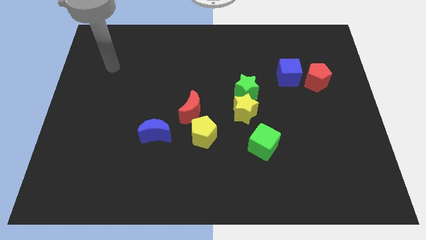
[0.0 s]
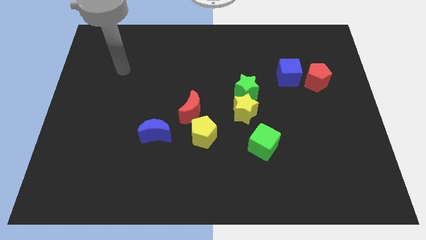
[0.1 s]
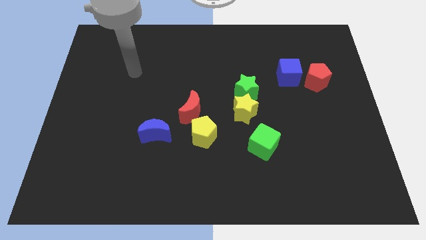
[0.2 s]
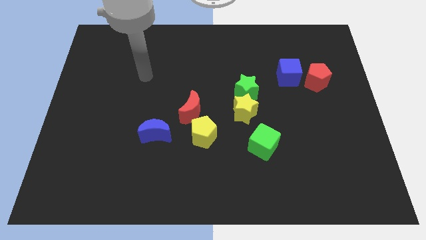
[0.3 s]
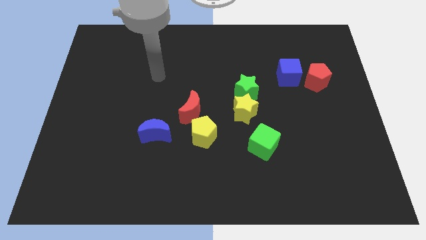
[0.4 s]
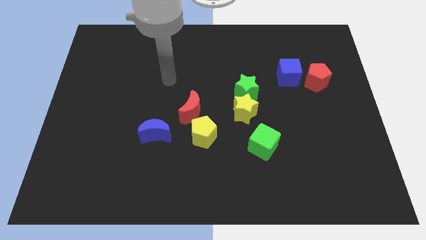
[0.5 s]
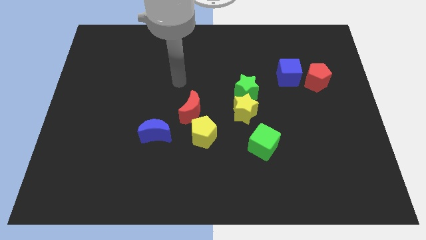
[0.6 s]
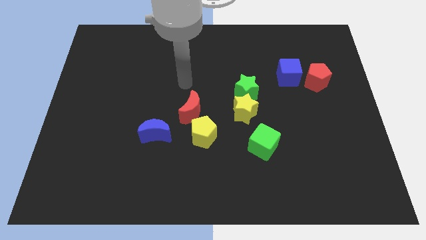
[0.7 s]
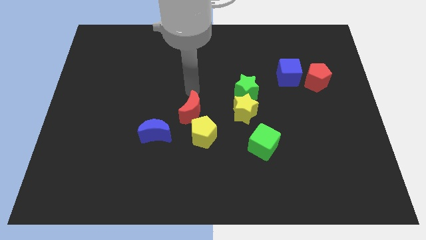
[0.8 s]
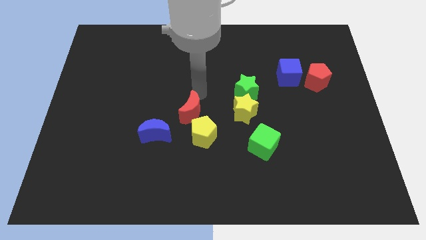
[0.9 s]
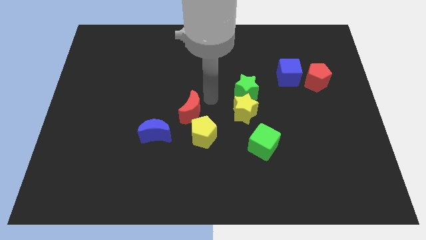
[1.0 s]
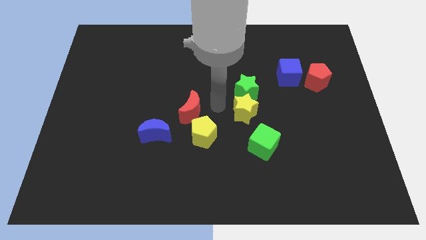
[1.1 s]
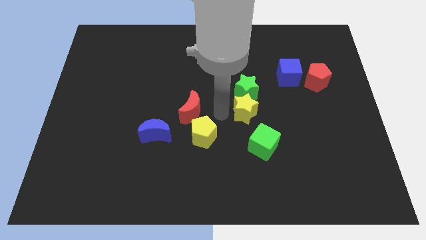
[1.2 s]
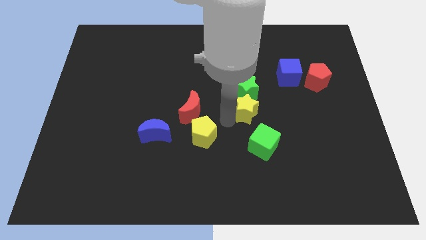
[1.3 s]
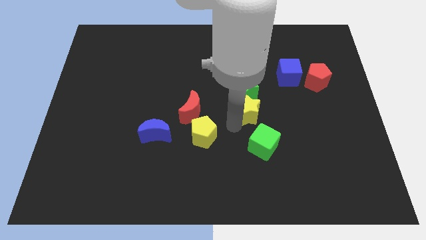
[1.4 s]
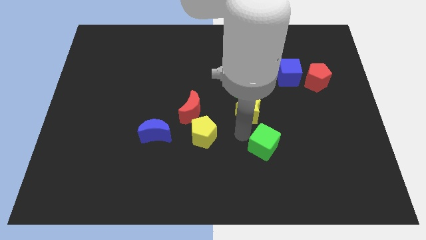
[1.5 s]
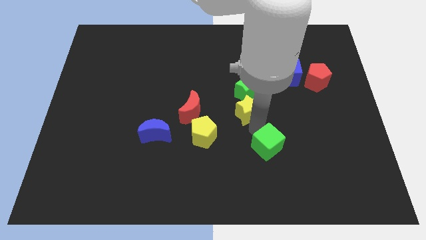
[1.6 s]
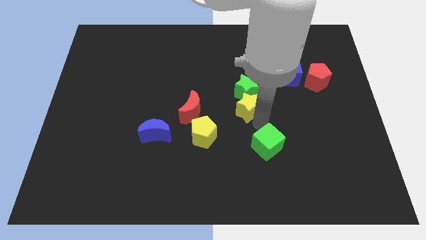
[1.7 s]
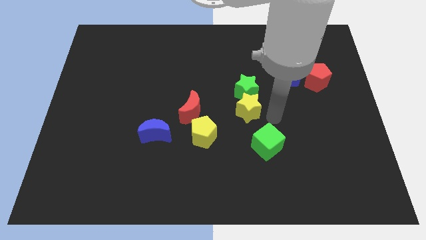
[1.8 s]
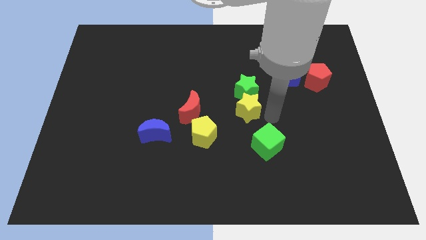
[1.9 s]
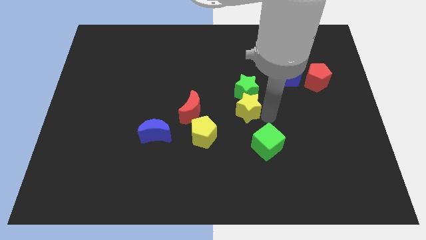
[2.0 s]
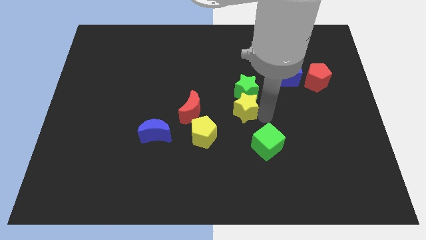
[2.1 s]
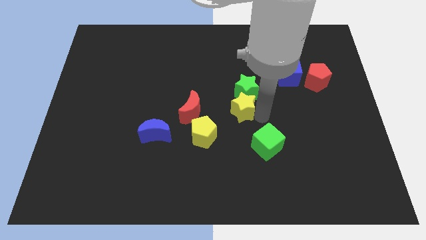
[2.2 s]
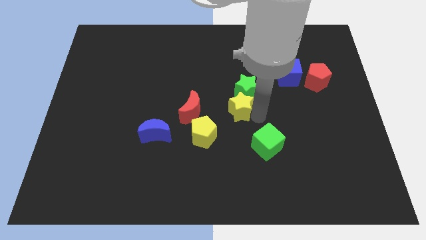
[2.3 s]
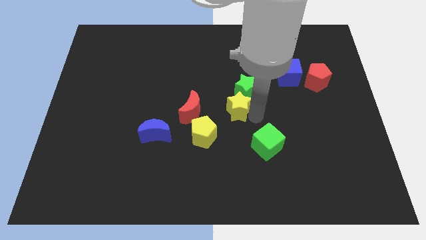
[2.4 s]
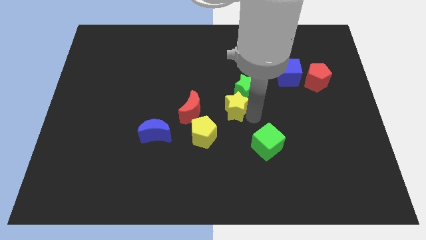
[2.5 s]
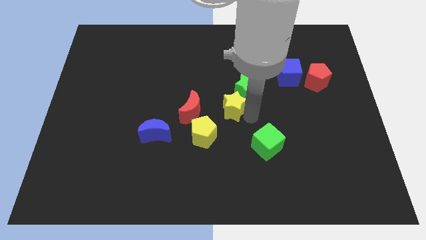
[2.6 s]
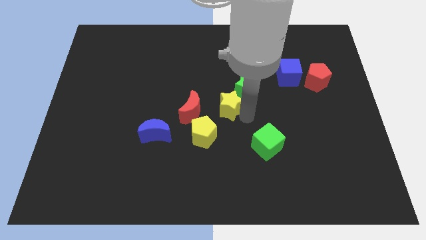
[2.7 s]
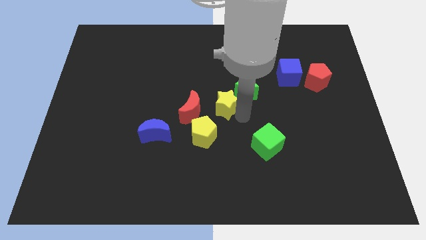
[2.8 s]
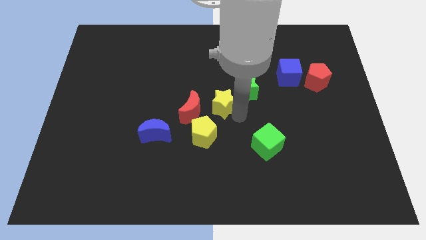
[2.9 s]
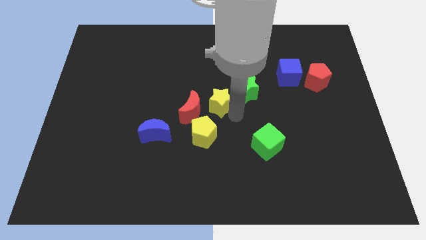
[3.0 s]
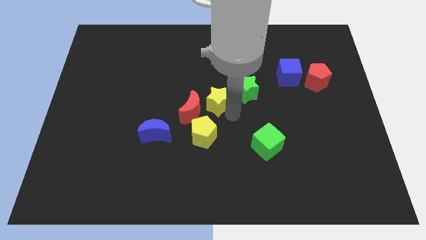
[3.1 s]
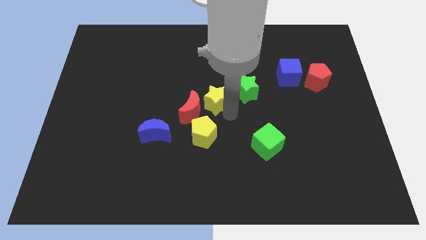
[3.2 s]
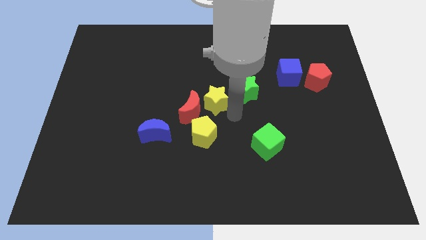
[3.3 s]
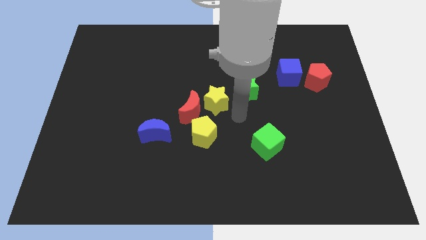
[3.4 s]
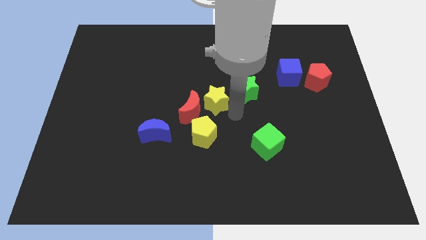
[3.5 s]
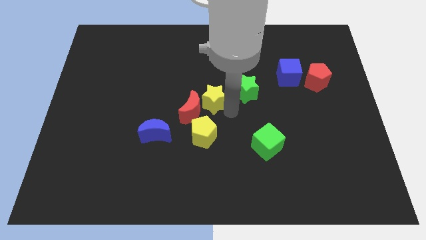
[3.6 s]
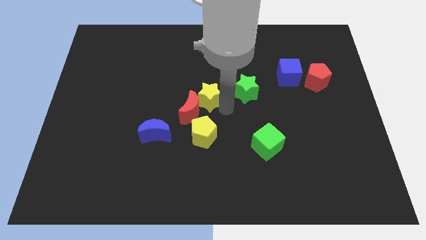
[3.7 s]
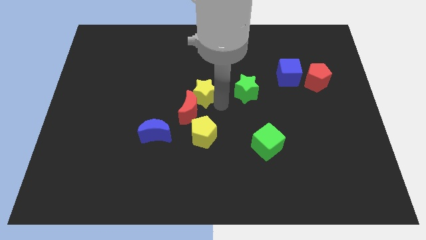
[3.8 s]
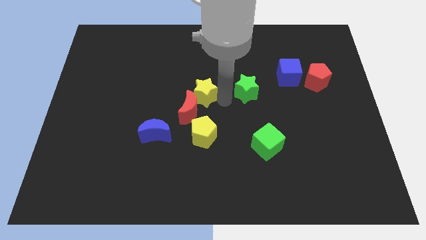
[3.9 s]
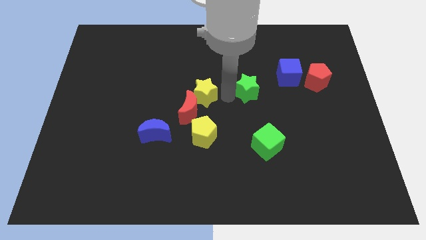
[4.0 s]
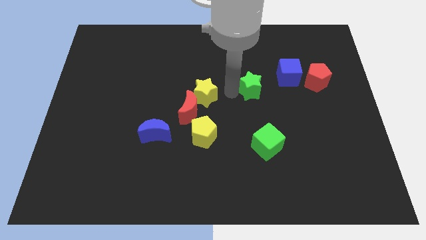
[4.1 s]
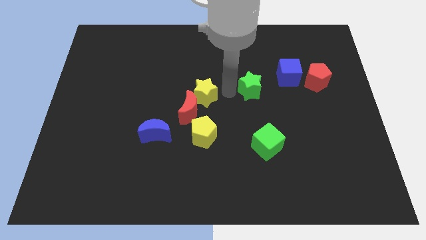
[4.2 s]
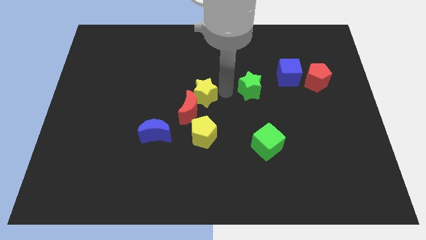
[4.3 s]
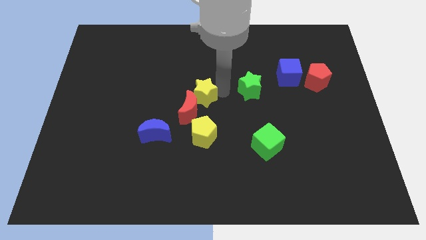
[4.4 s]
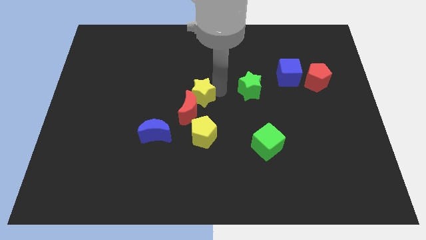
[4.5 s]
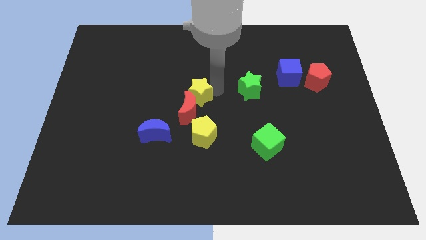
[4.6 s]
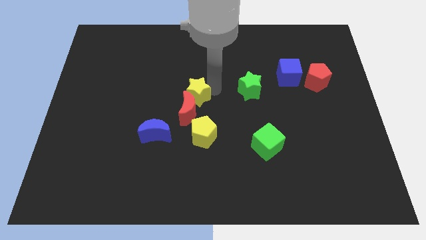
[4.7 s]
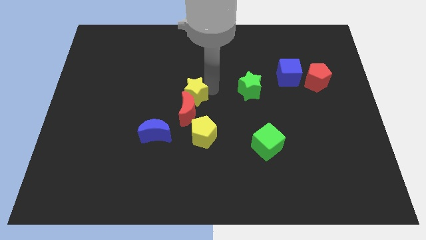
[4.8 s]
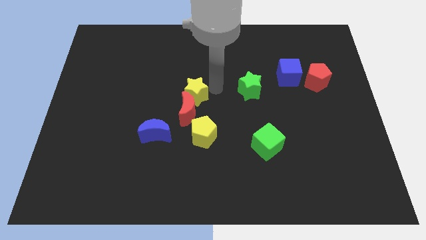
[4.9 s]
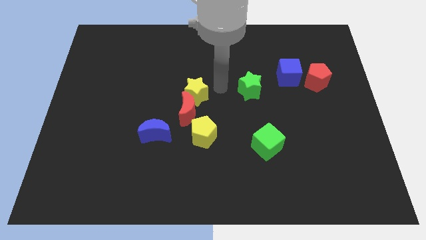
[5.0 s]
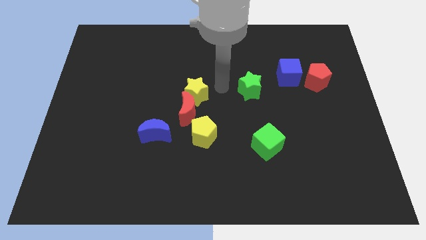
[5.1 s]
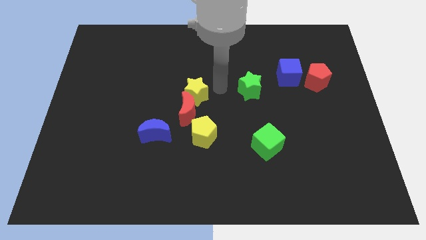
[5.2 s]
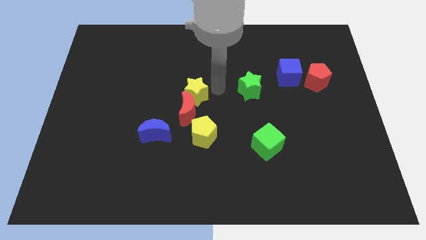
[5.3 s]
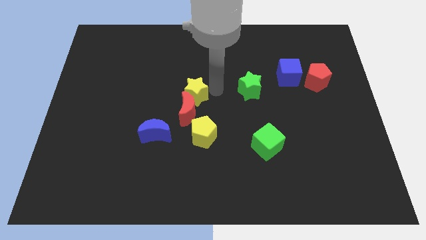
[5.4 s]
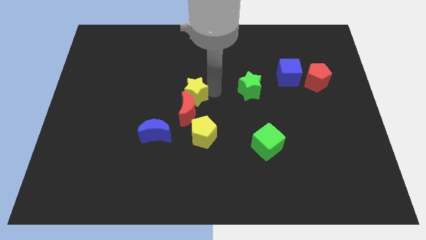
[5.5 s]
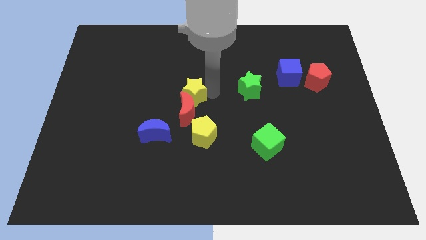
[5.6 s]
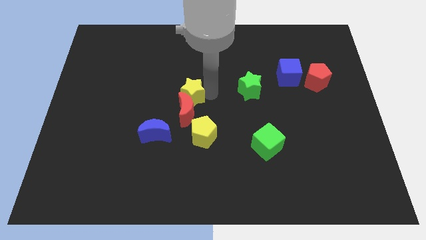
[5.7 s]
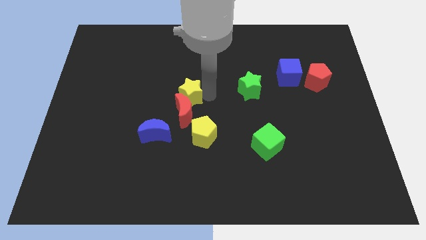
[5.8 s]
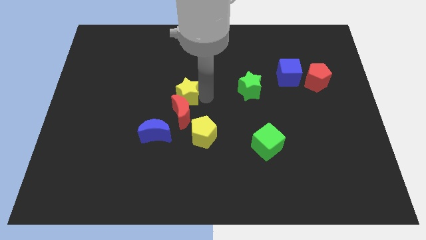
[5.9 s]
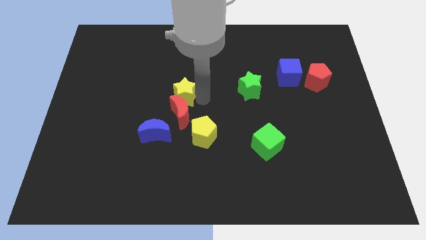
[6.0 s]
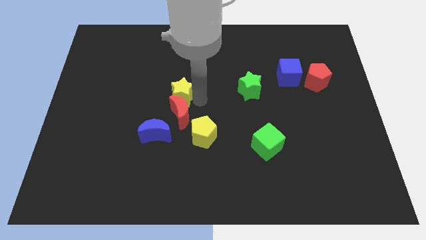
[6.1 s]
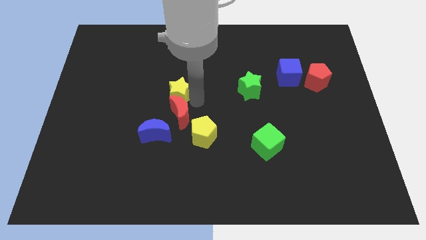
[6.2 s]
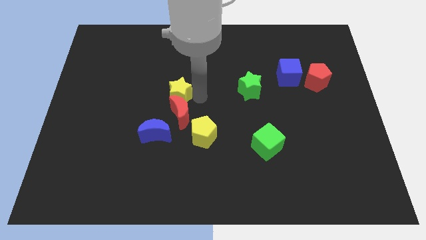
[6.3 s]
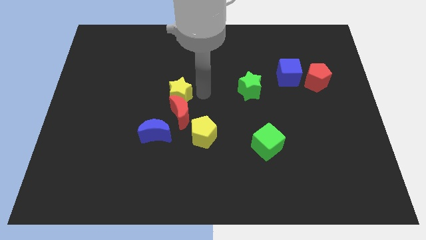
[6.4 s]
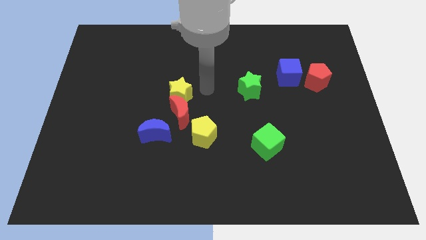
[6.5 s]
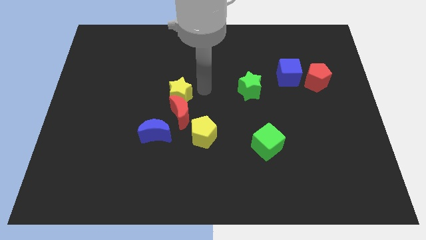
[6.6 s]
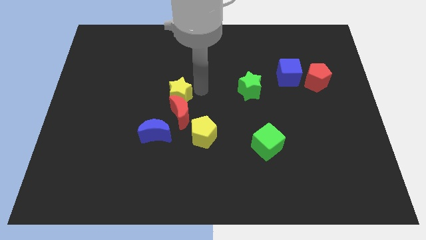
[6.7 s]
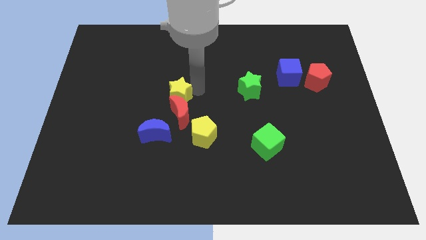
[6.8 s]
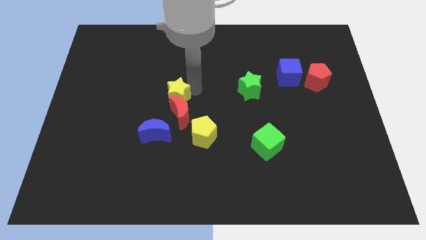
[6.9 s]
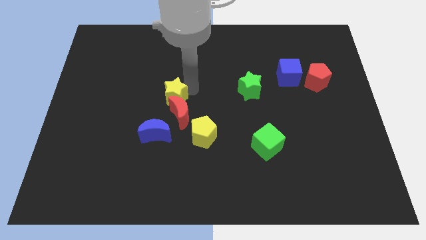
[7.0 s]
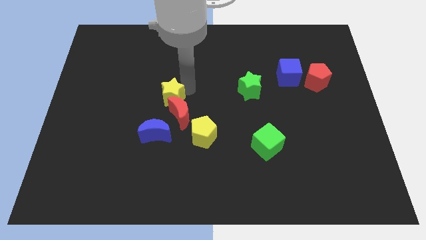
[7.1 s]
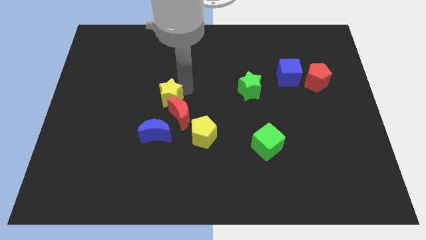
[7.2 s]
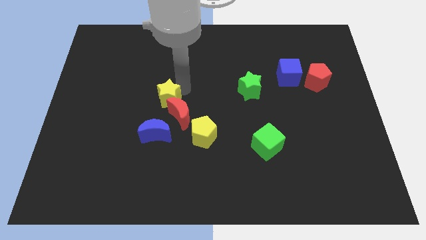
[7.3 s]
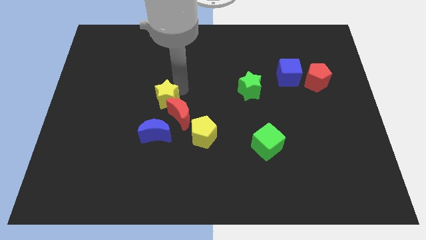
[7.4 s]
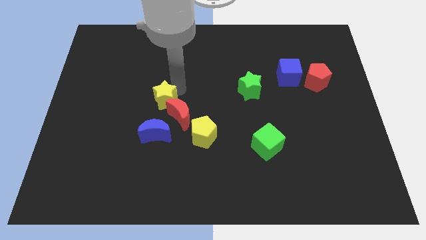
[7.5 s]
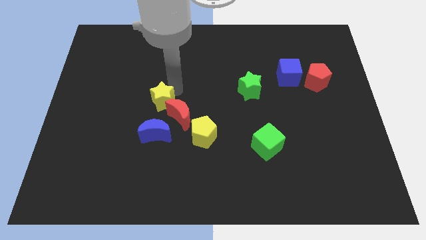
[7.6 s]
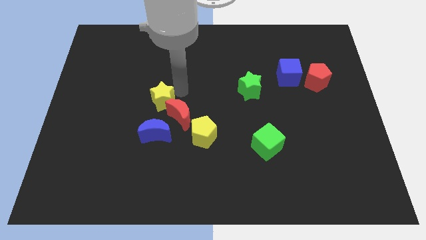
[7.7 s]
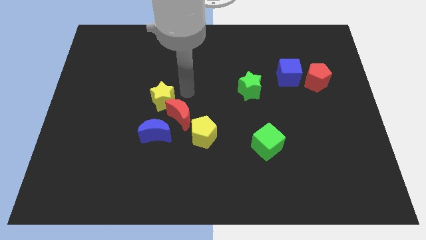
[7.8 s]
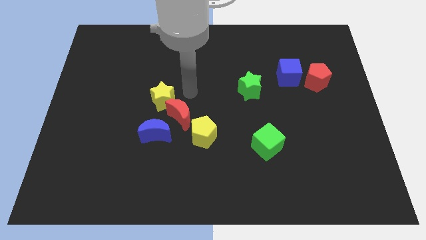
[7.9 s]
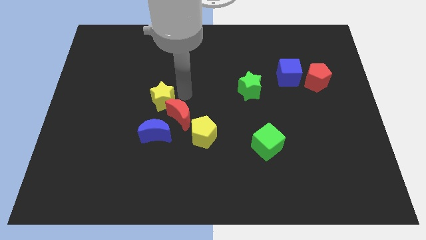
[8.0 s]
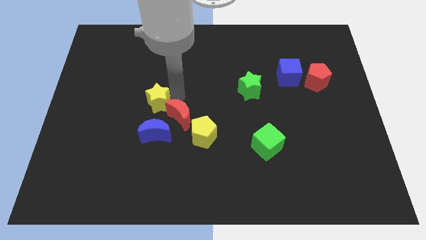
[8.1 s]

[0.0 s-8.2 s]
move the yellow star left

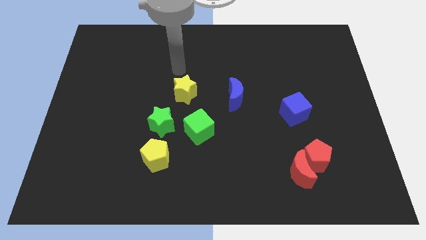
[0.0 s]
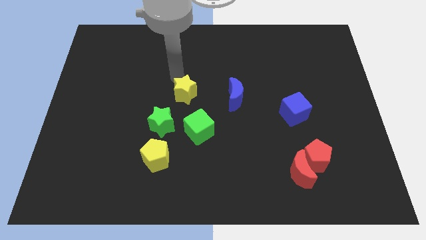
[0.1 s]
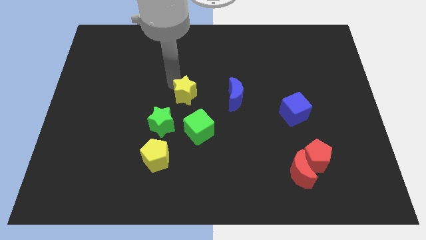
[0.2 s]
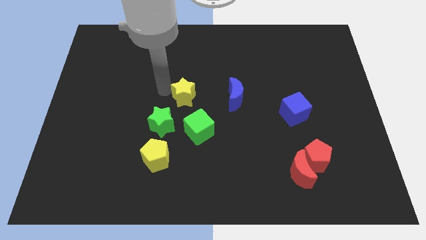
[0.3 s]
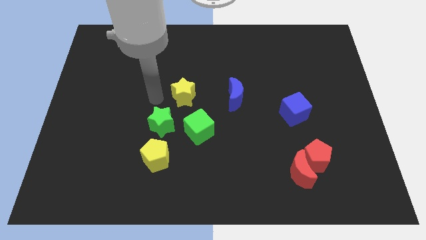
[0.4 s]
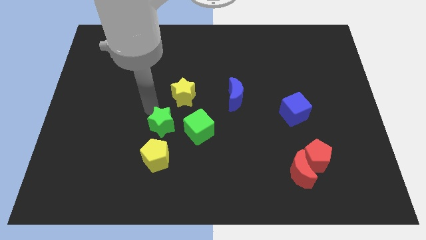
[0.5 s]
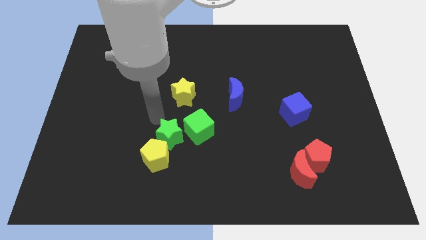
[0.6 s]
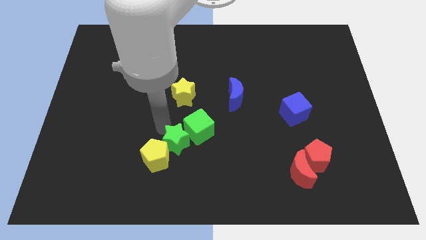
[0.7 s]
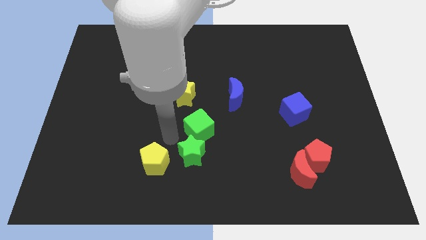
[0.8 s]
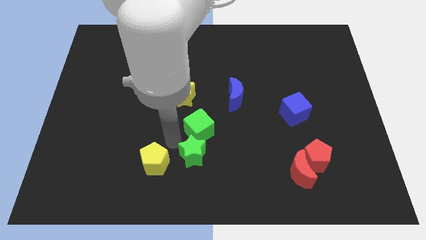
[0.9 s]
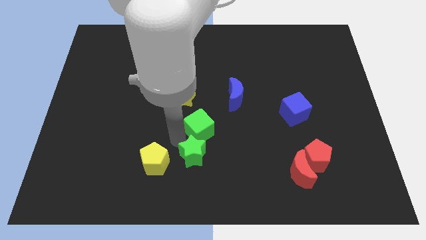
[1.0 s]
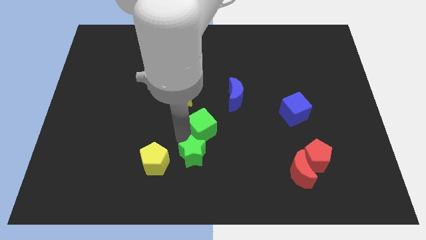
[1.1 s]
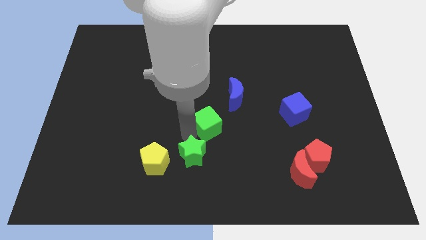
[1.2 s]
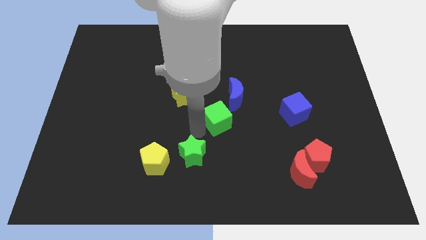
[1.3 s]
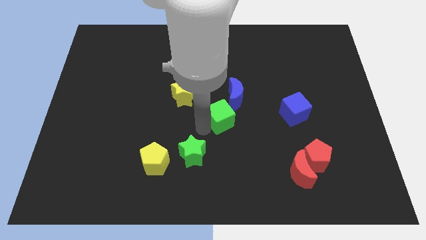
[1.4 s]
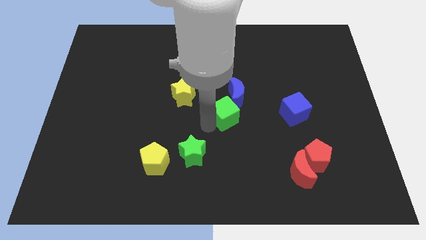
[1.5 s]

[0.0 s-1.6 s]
slightly move the green cube upwards and then to the right
